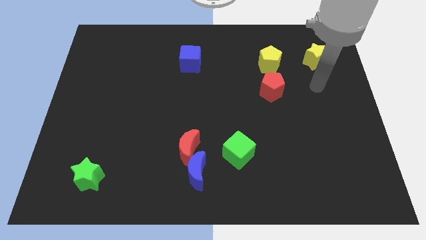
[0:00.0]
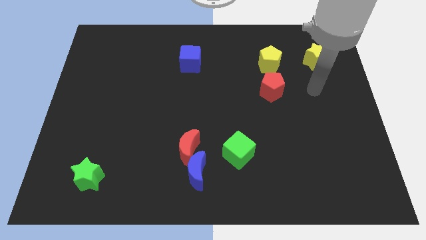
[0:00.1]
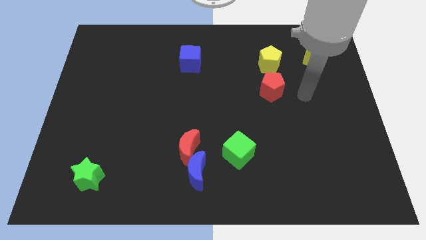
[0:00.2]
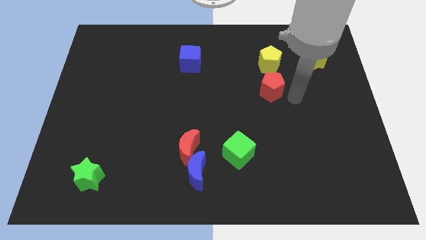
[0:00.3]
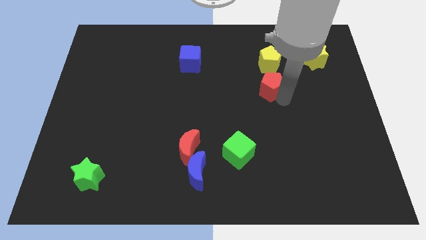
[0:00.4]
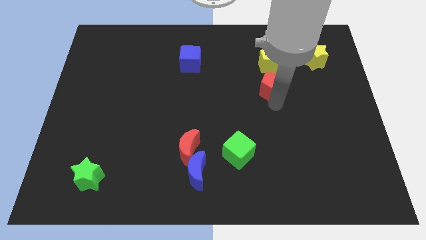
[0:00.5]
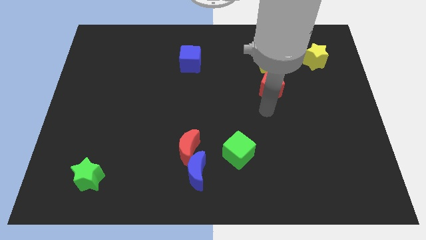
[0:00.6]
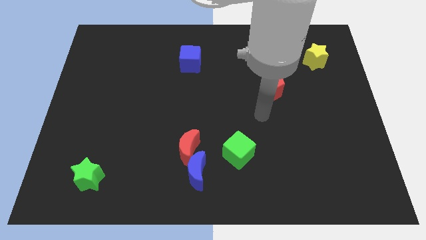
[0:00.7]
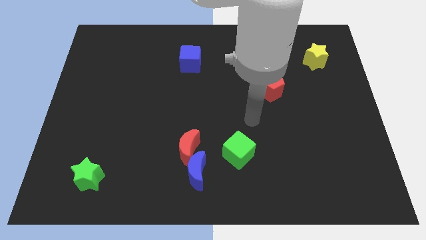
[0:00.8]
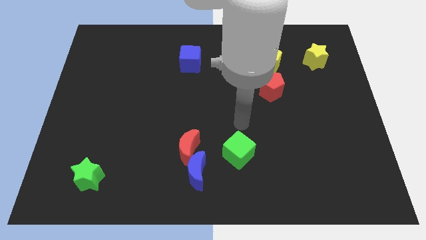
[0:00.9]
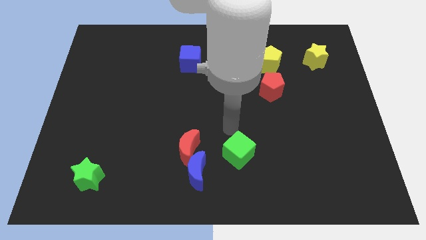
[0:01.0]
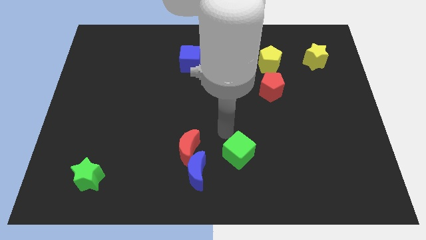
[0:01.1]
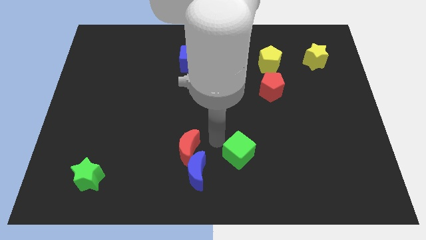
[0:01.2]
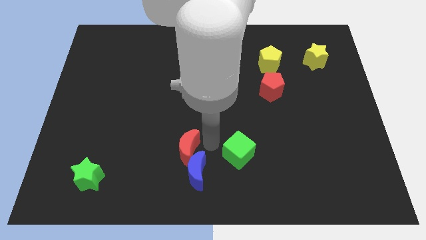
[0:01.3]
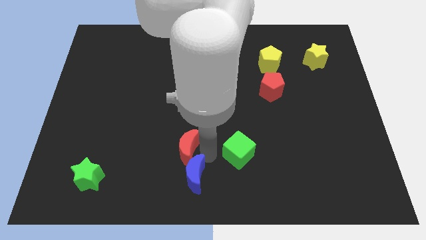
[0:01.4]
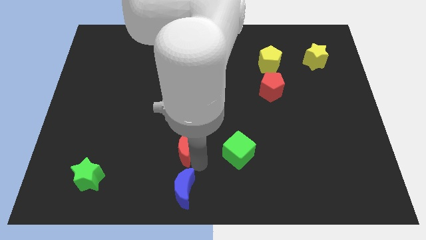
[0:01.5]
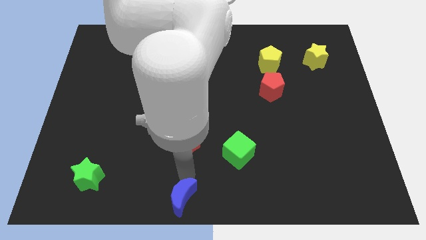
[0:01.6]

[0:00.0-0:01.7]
separate the red moon from the blue moon

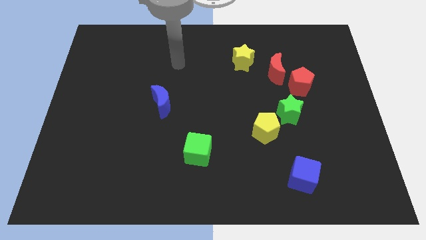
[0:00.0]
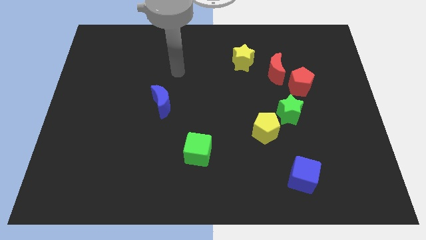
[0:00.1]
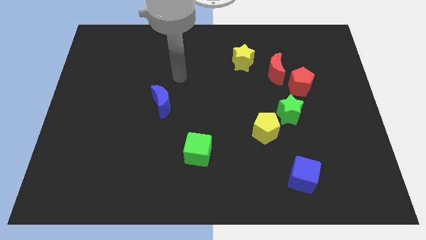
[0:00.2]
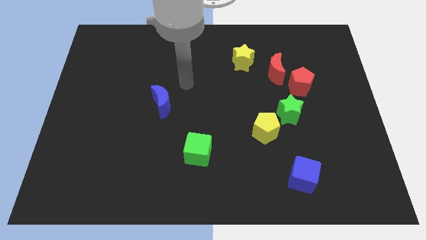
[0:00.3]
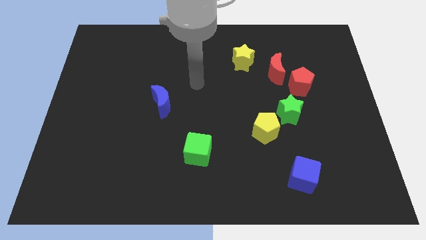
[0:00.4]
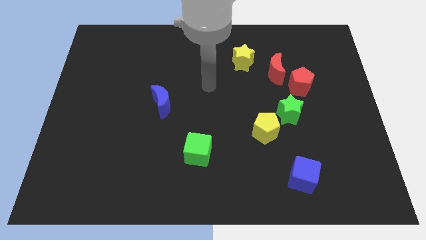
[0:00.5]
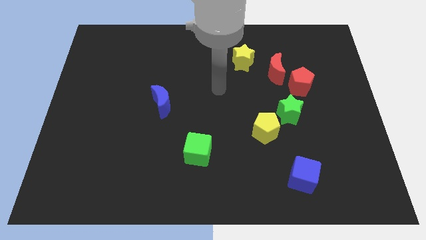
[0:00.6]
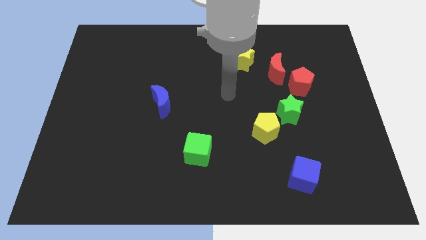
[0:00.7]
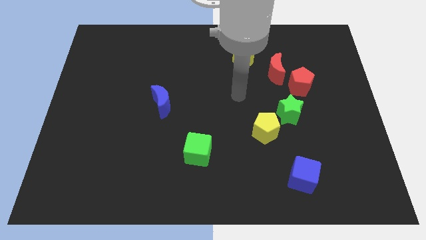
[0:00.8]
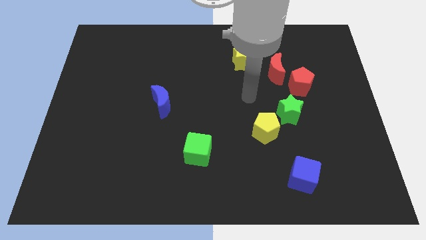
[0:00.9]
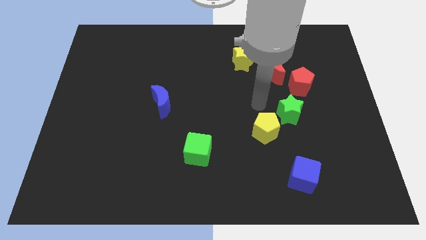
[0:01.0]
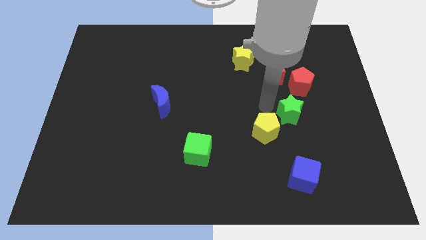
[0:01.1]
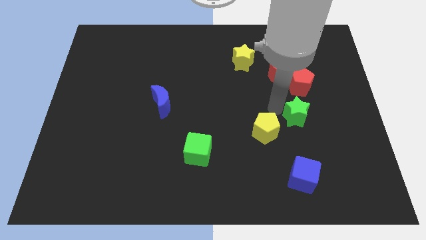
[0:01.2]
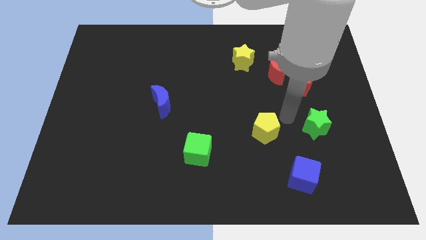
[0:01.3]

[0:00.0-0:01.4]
separate the yellow pentagon from the green star

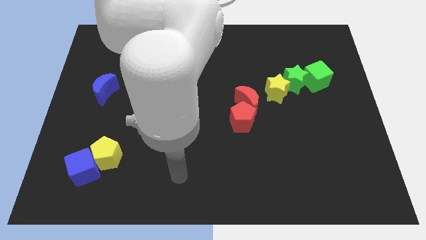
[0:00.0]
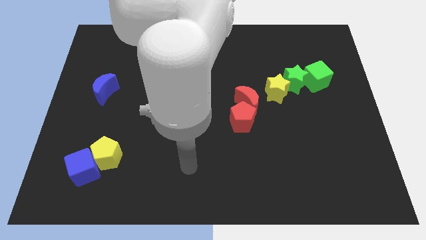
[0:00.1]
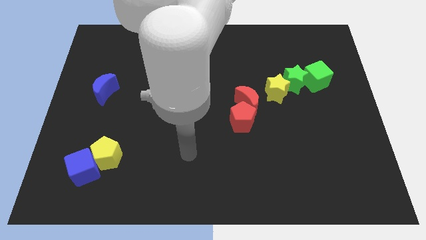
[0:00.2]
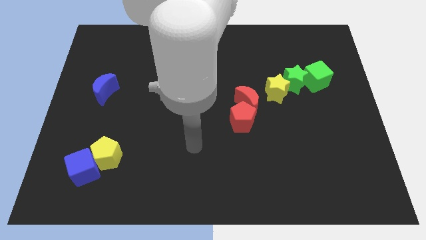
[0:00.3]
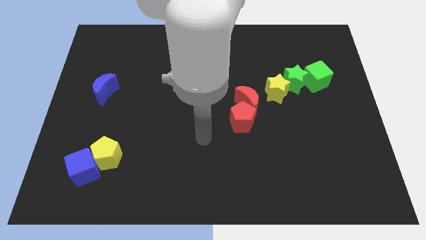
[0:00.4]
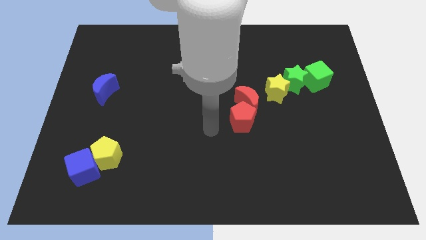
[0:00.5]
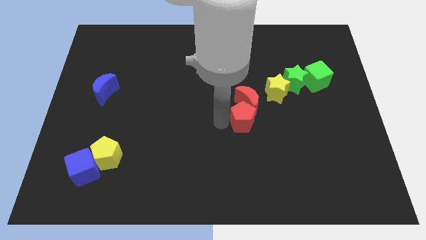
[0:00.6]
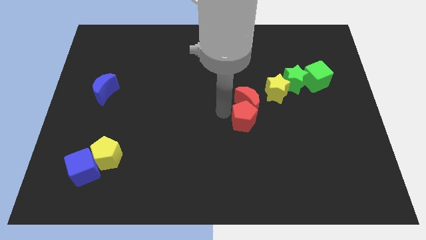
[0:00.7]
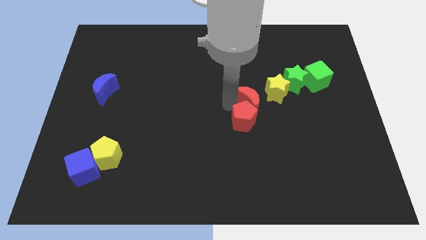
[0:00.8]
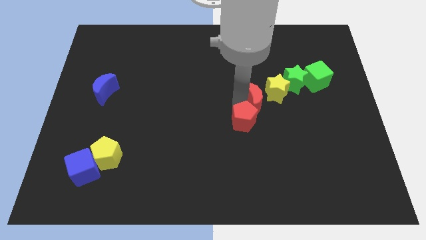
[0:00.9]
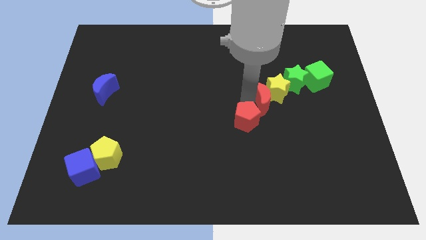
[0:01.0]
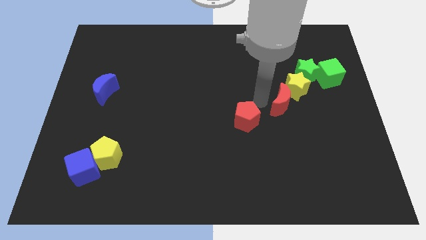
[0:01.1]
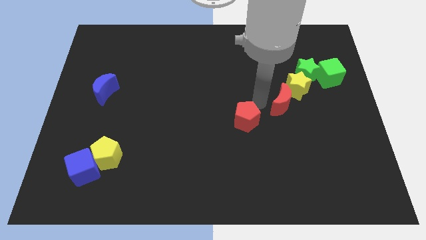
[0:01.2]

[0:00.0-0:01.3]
move the red pentagon away from the red moon

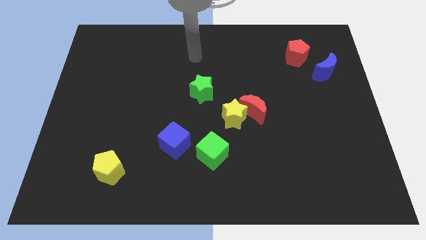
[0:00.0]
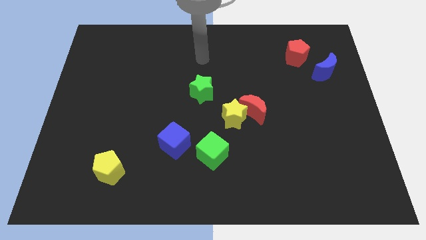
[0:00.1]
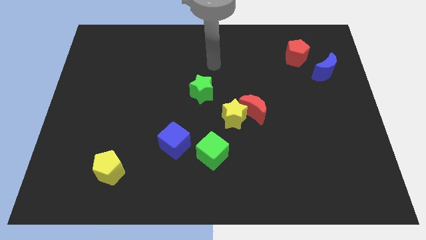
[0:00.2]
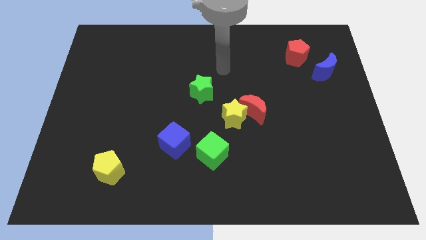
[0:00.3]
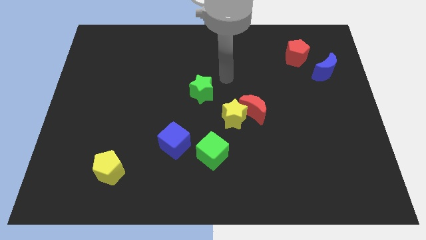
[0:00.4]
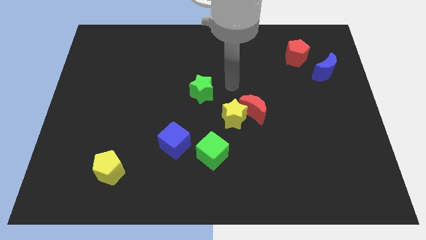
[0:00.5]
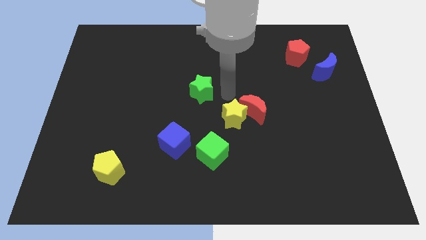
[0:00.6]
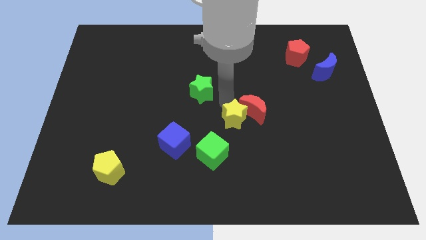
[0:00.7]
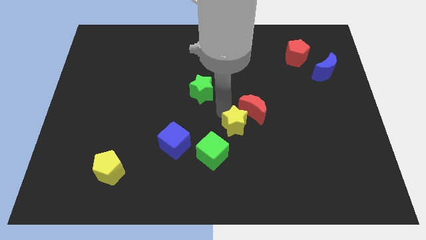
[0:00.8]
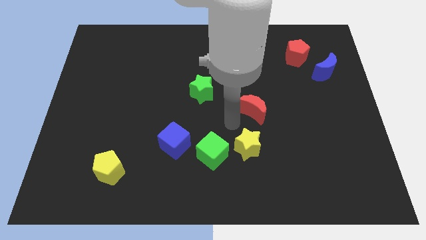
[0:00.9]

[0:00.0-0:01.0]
move the red moon away from the yellow star

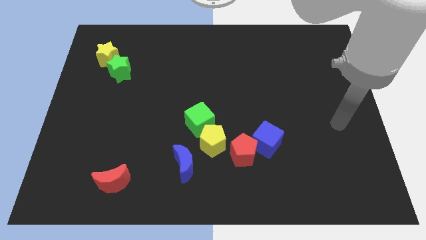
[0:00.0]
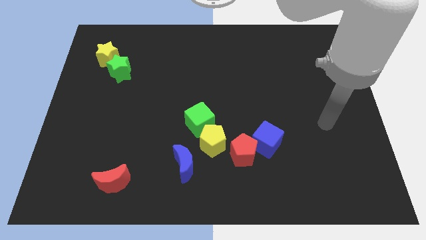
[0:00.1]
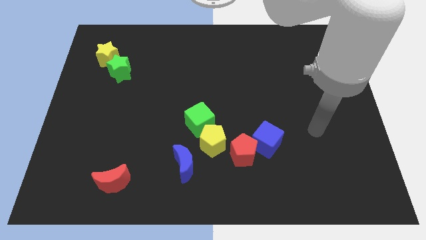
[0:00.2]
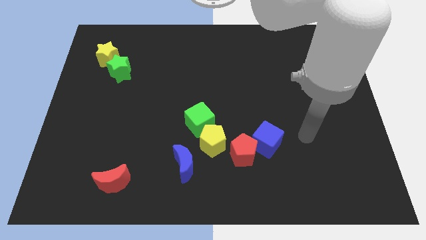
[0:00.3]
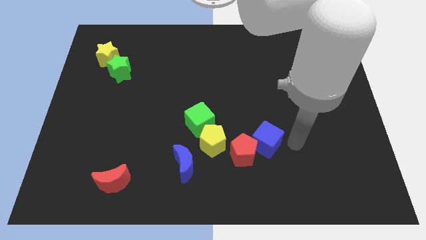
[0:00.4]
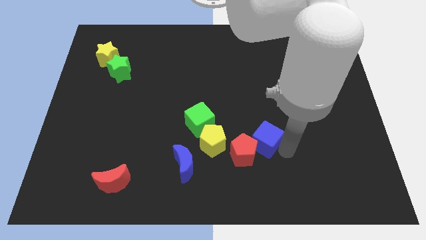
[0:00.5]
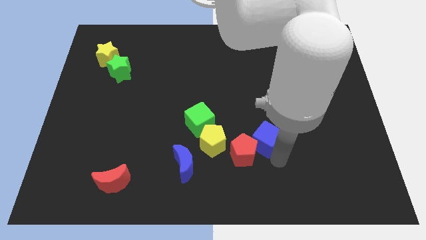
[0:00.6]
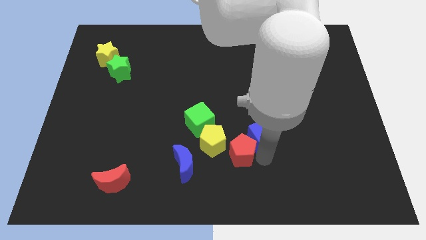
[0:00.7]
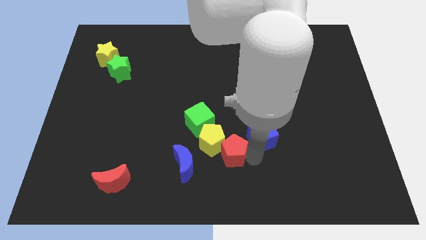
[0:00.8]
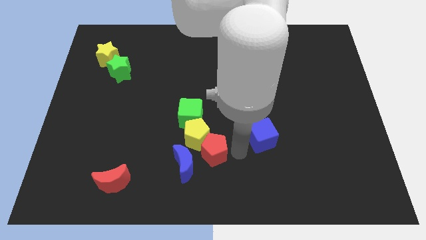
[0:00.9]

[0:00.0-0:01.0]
pull the blue cube apart from the red pentagon

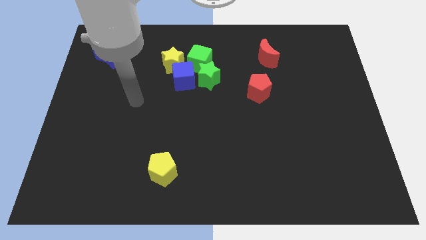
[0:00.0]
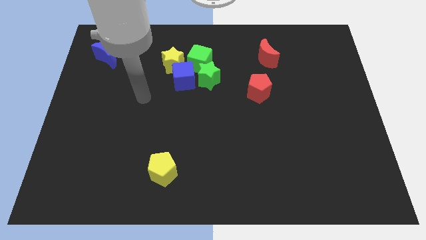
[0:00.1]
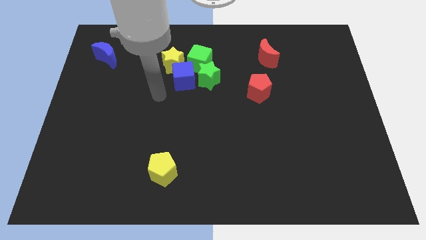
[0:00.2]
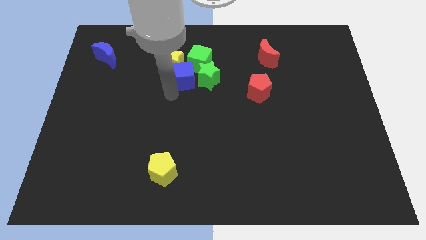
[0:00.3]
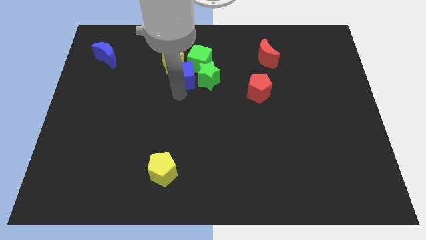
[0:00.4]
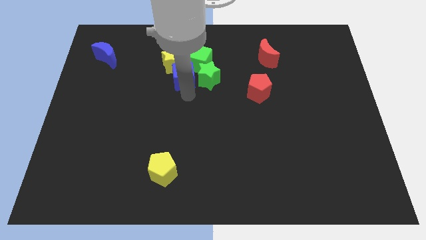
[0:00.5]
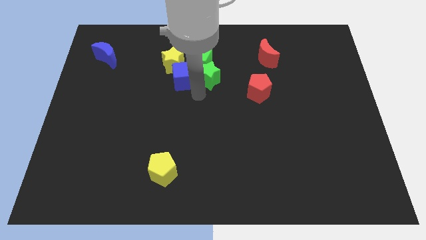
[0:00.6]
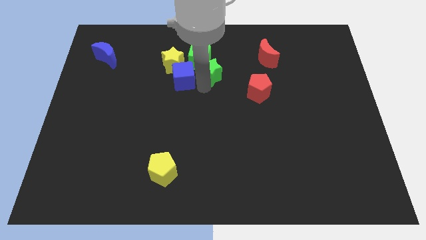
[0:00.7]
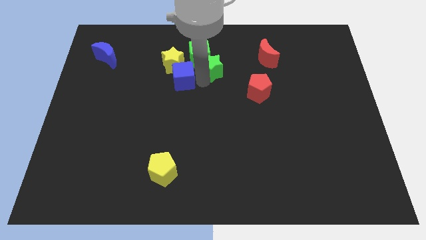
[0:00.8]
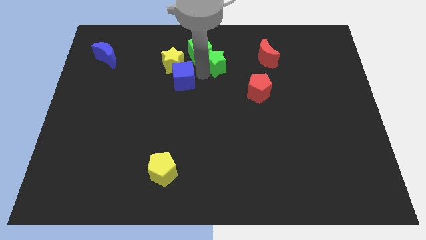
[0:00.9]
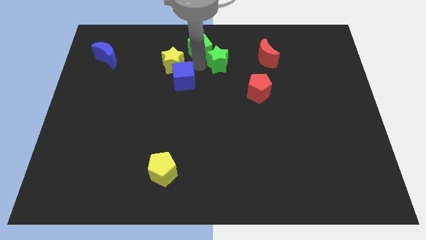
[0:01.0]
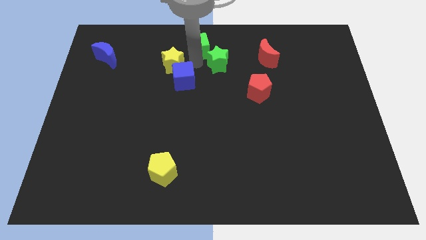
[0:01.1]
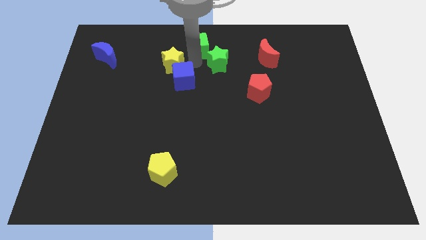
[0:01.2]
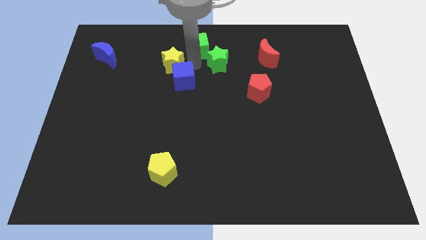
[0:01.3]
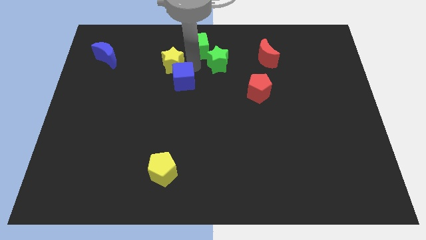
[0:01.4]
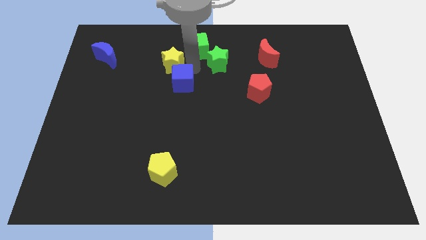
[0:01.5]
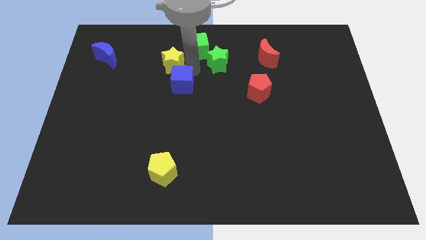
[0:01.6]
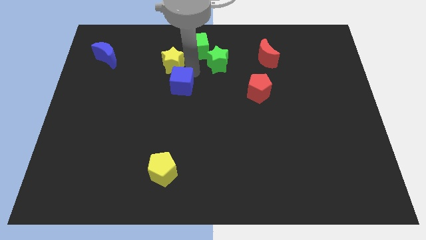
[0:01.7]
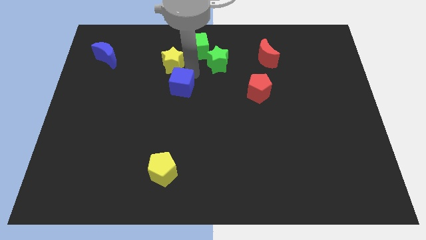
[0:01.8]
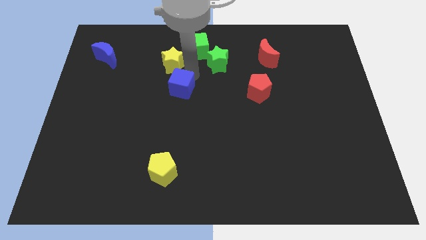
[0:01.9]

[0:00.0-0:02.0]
separate the blue cube from the group of blocks

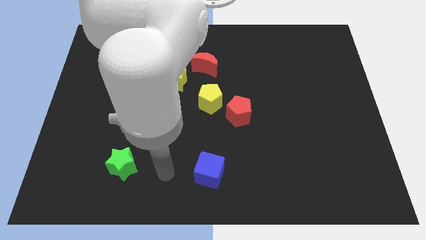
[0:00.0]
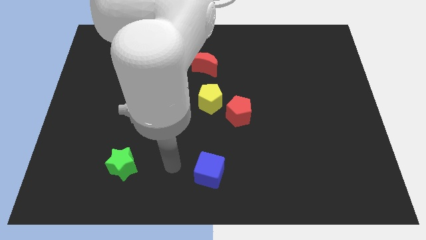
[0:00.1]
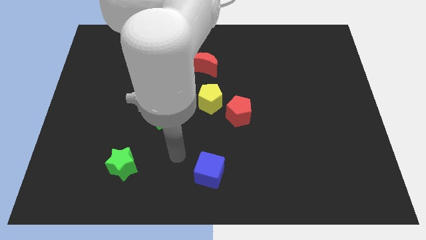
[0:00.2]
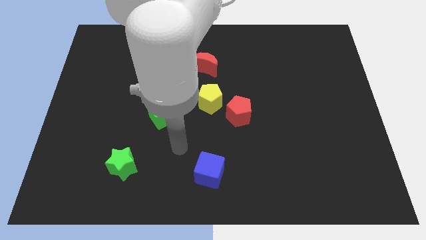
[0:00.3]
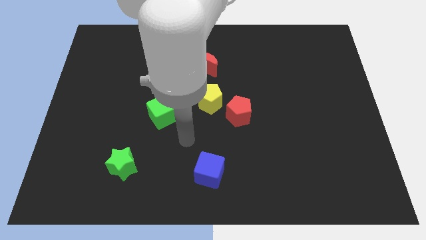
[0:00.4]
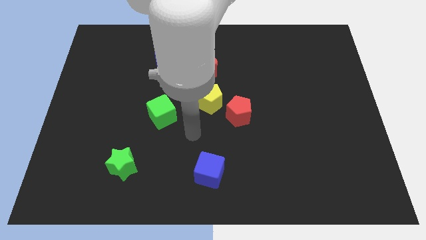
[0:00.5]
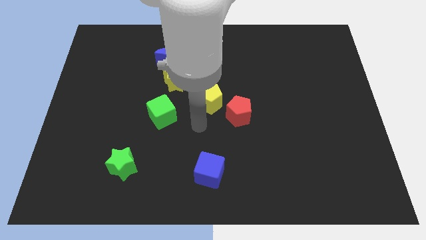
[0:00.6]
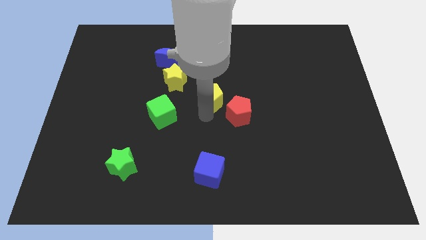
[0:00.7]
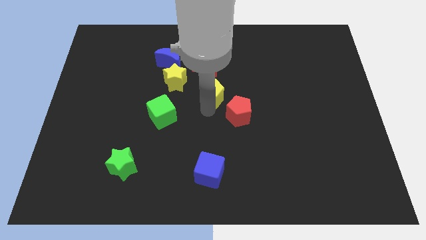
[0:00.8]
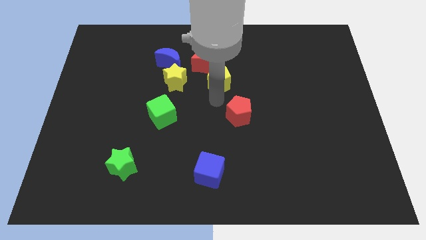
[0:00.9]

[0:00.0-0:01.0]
move the red pentagon away from the yellow pentagon
